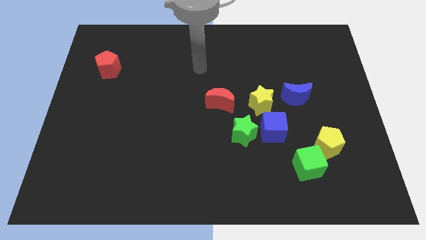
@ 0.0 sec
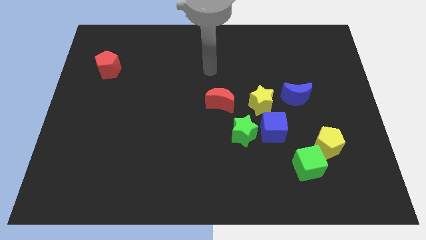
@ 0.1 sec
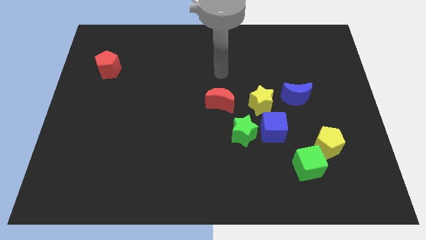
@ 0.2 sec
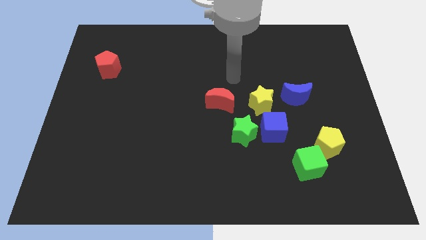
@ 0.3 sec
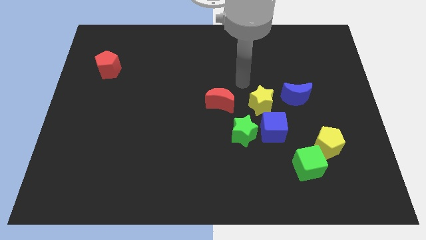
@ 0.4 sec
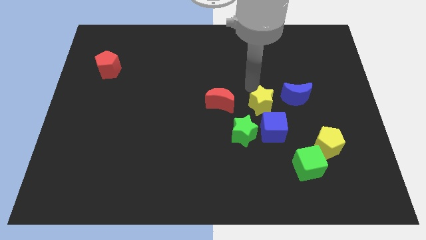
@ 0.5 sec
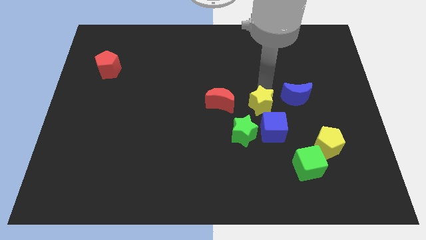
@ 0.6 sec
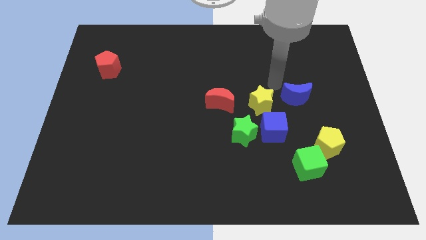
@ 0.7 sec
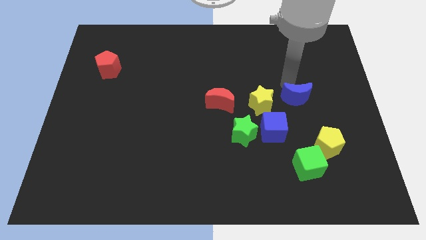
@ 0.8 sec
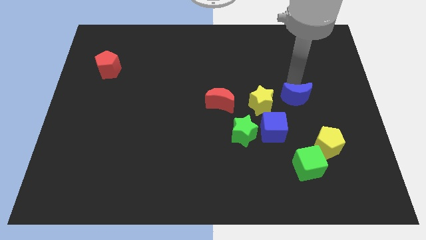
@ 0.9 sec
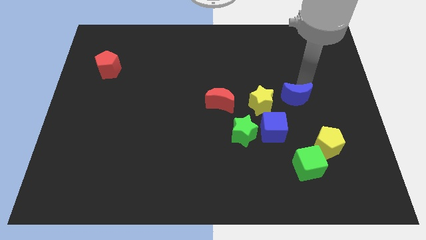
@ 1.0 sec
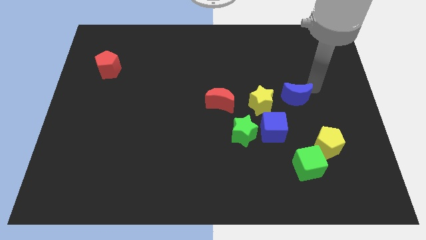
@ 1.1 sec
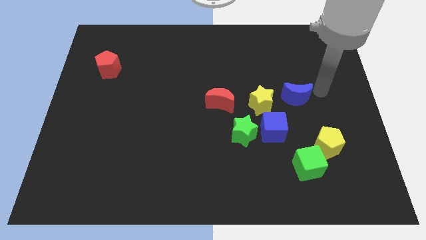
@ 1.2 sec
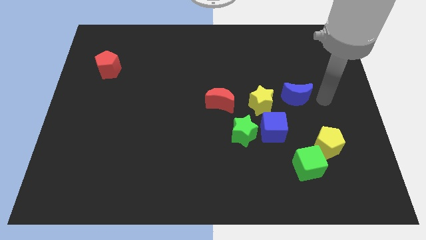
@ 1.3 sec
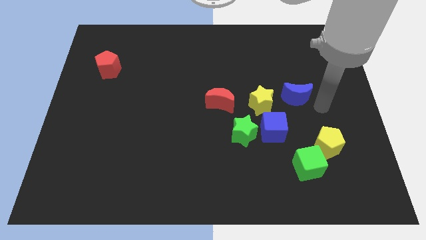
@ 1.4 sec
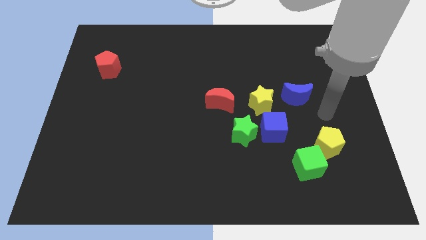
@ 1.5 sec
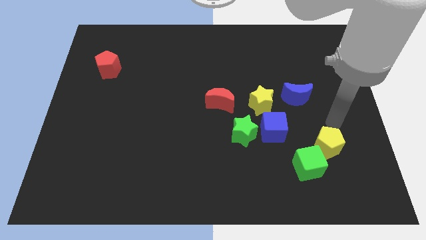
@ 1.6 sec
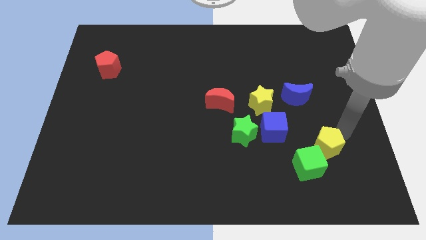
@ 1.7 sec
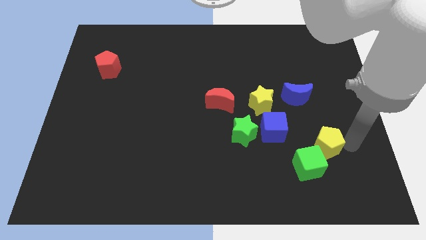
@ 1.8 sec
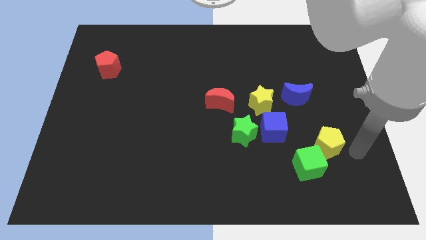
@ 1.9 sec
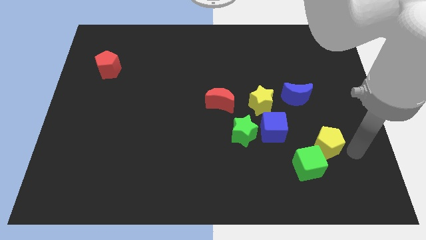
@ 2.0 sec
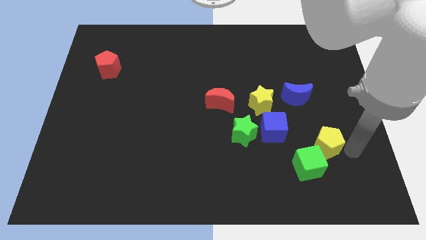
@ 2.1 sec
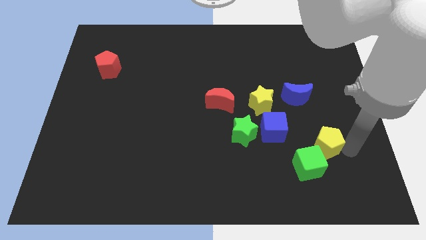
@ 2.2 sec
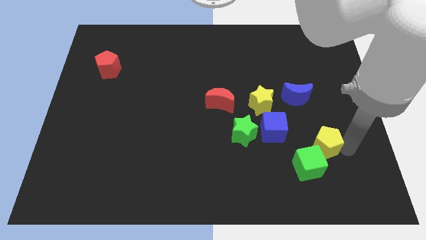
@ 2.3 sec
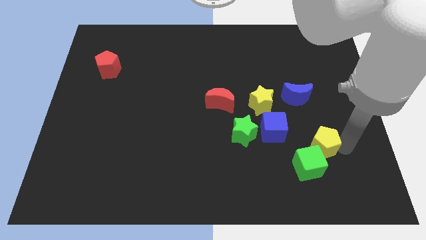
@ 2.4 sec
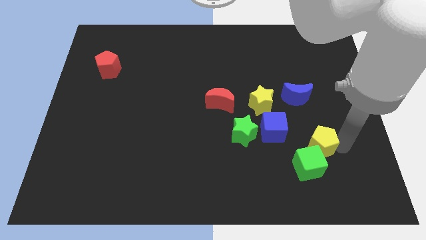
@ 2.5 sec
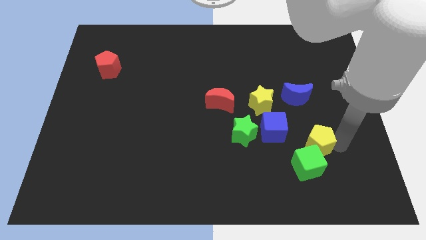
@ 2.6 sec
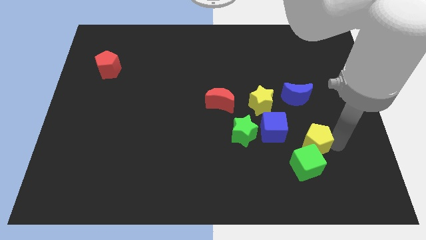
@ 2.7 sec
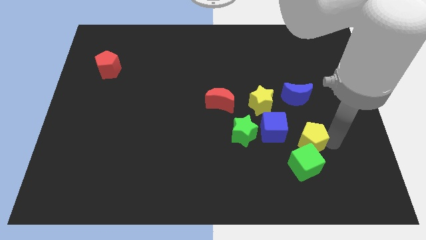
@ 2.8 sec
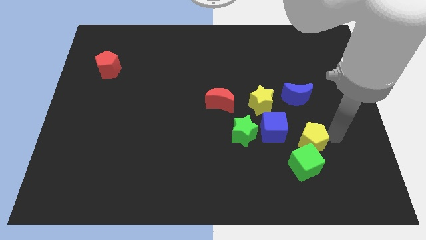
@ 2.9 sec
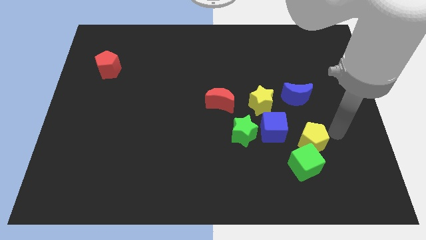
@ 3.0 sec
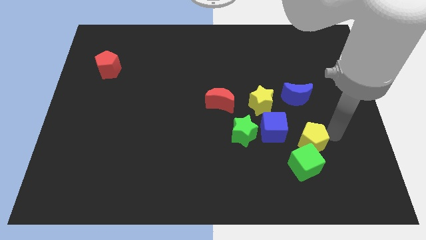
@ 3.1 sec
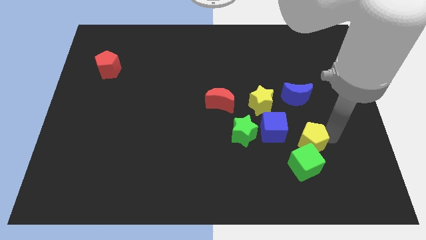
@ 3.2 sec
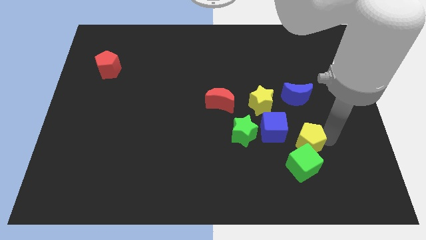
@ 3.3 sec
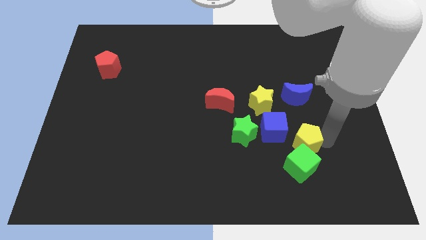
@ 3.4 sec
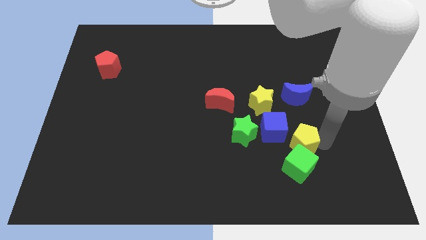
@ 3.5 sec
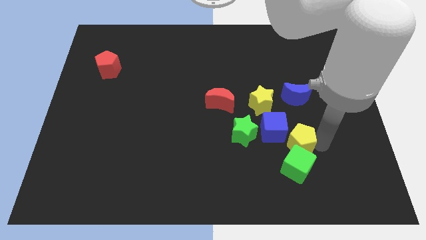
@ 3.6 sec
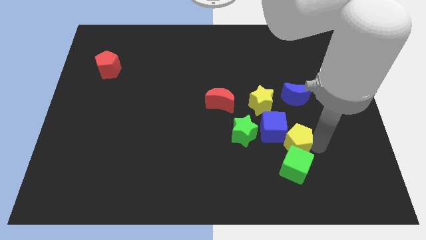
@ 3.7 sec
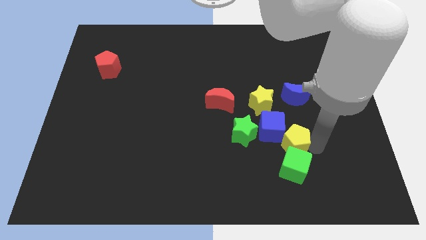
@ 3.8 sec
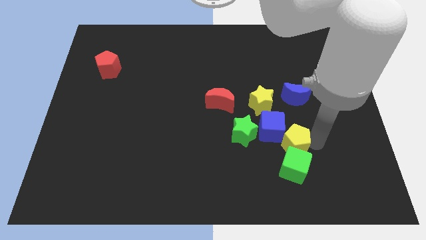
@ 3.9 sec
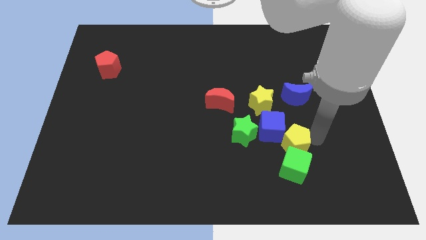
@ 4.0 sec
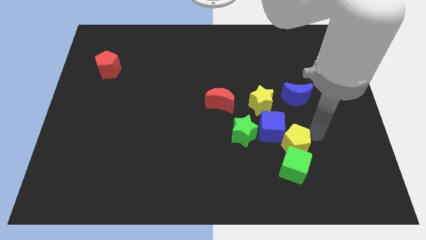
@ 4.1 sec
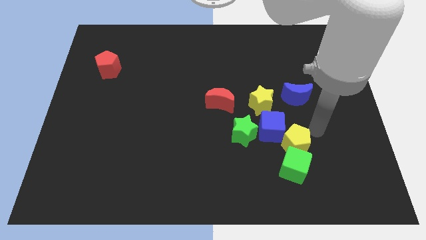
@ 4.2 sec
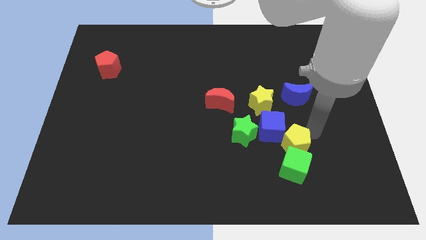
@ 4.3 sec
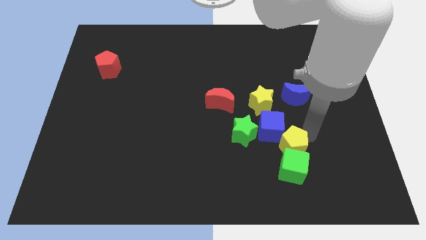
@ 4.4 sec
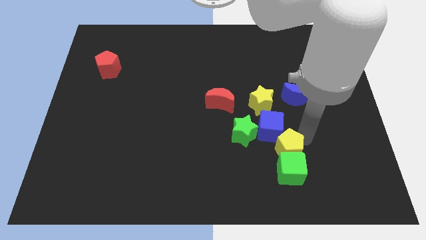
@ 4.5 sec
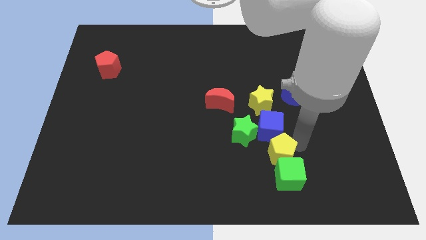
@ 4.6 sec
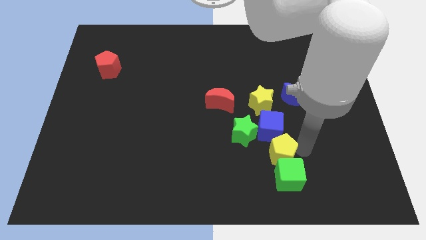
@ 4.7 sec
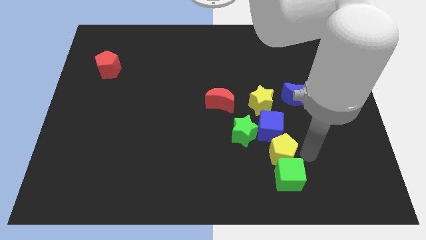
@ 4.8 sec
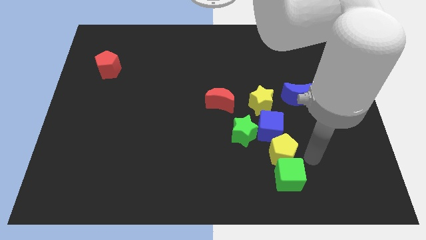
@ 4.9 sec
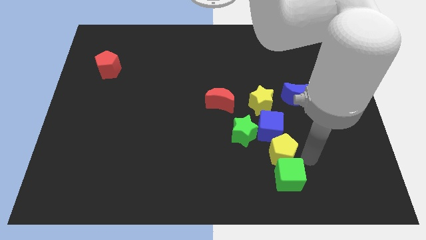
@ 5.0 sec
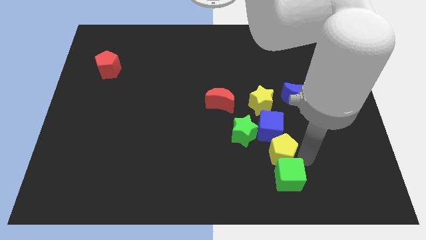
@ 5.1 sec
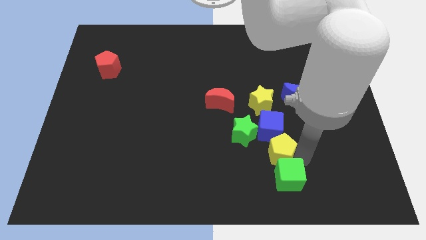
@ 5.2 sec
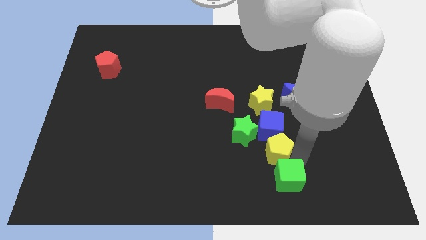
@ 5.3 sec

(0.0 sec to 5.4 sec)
push the yellow pentagon to the bottom left of the blue cube

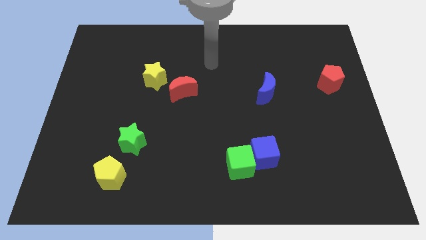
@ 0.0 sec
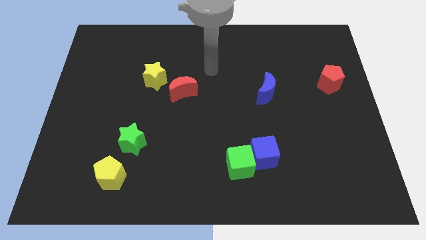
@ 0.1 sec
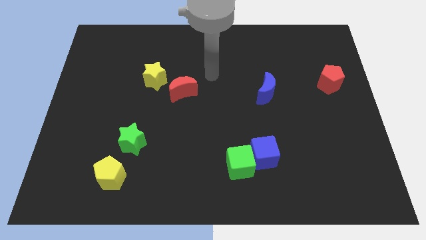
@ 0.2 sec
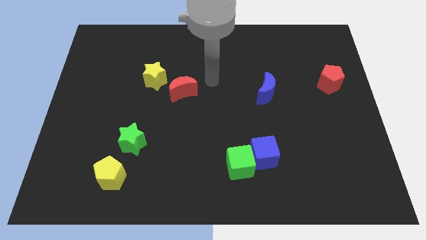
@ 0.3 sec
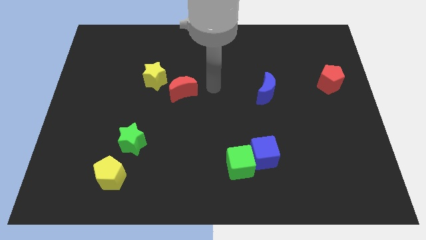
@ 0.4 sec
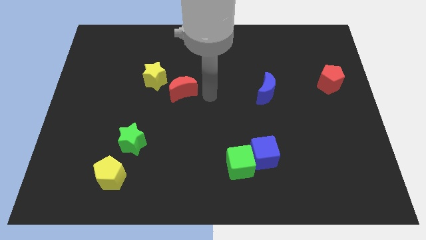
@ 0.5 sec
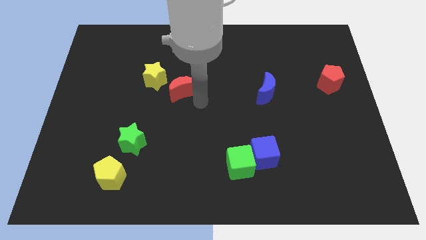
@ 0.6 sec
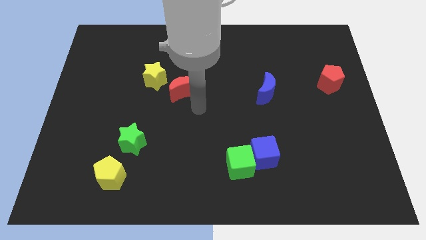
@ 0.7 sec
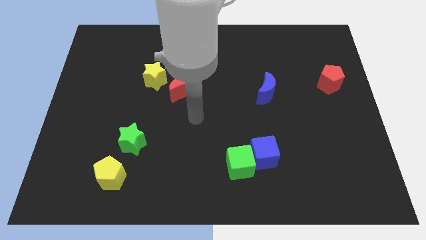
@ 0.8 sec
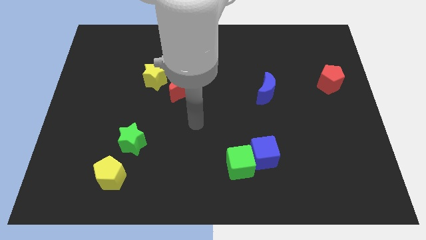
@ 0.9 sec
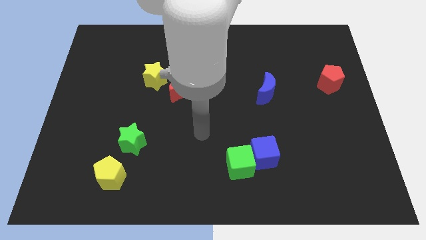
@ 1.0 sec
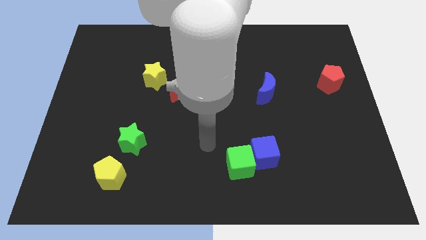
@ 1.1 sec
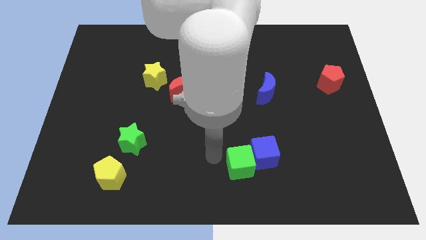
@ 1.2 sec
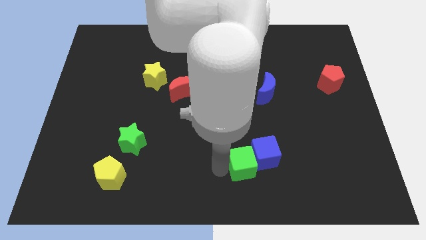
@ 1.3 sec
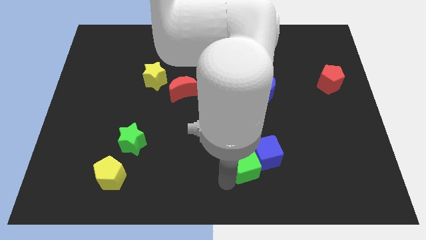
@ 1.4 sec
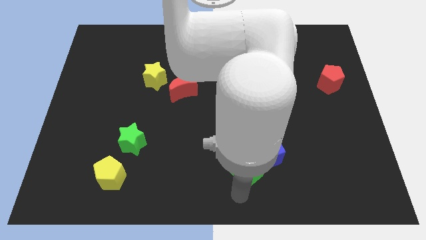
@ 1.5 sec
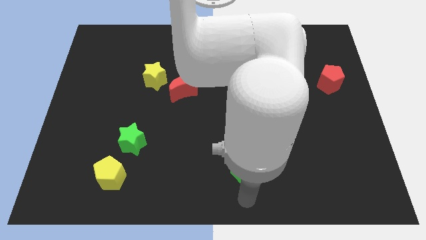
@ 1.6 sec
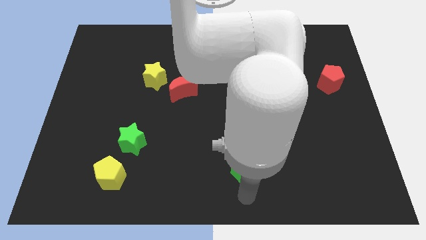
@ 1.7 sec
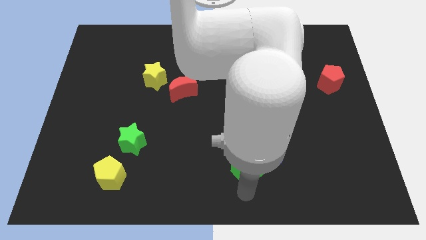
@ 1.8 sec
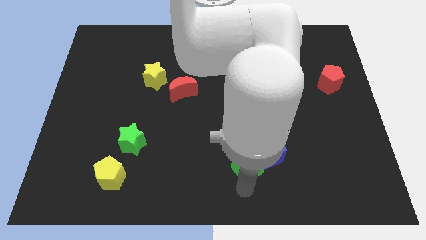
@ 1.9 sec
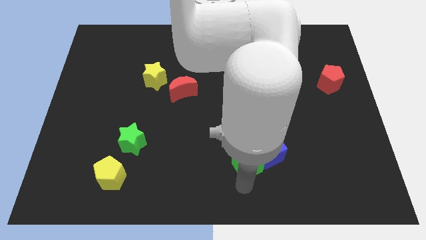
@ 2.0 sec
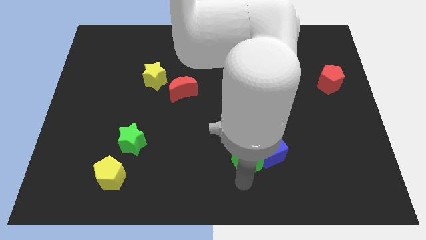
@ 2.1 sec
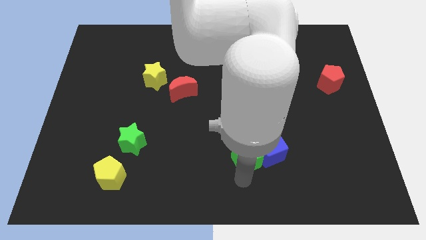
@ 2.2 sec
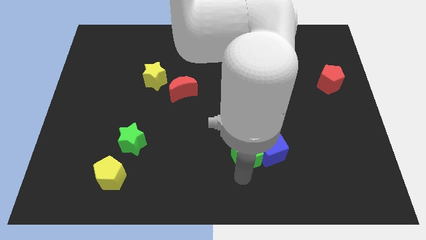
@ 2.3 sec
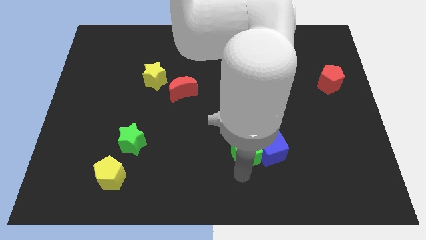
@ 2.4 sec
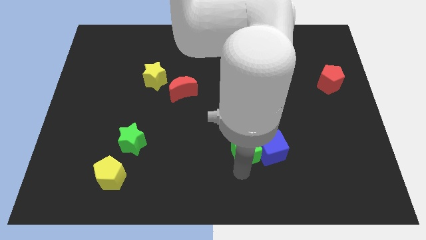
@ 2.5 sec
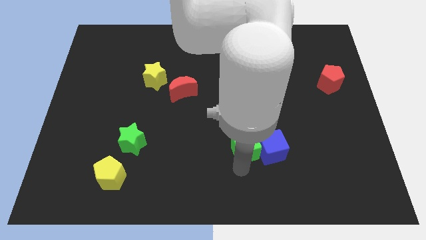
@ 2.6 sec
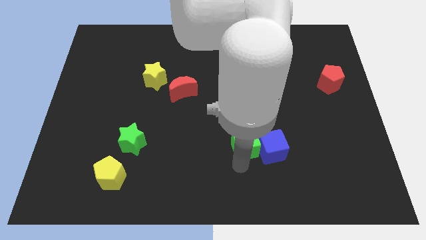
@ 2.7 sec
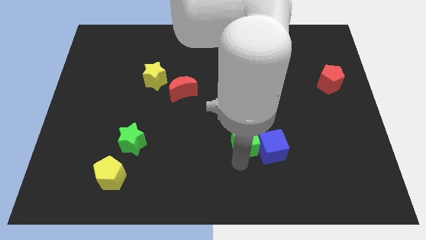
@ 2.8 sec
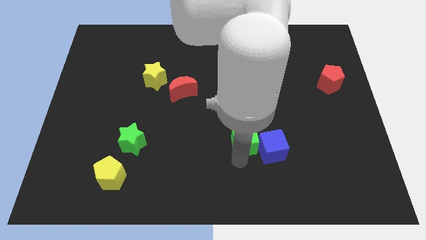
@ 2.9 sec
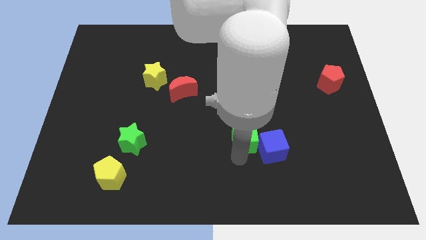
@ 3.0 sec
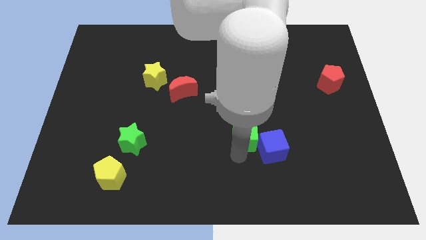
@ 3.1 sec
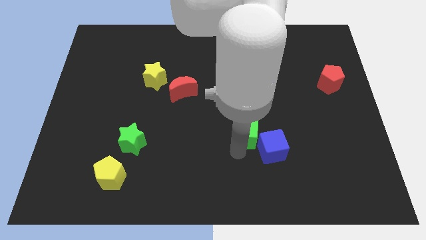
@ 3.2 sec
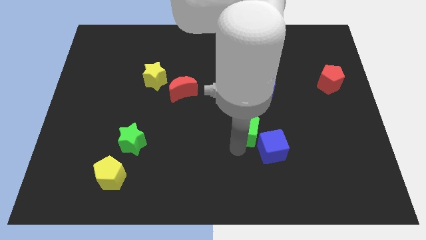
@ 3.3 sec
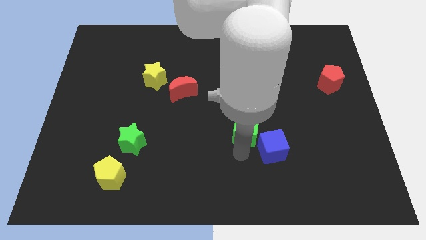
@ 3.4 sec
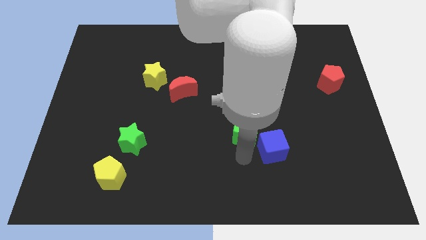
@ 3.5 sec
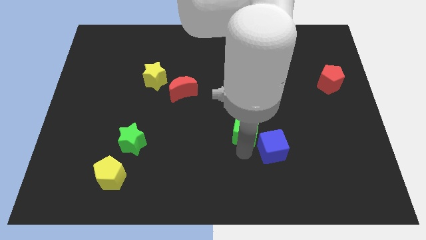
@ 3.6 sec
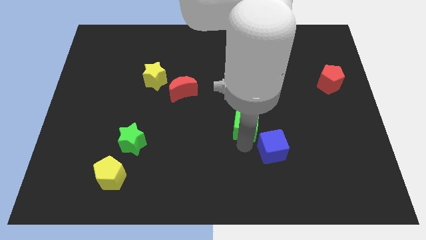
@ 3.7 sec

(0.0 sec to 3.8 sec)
put the green cube to the bottom left side of the blue moon
